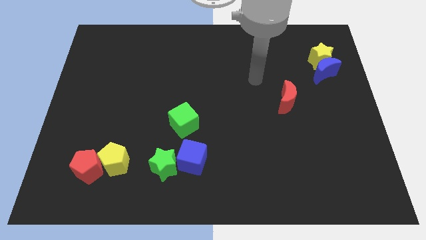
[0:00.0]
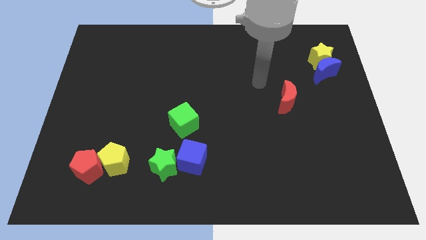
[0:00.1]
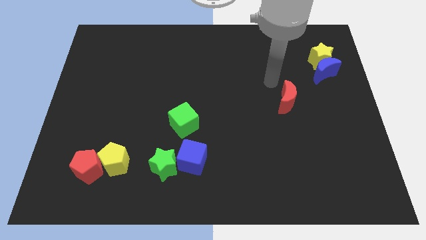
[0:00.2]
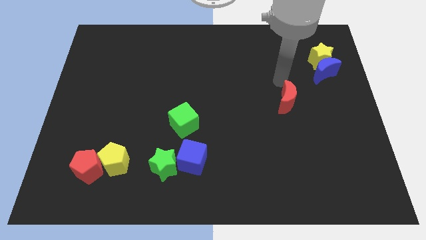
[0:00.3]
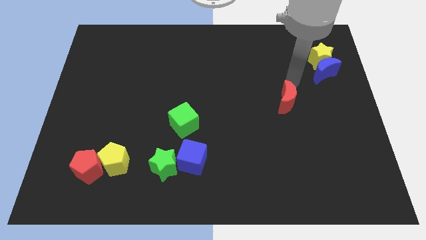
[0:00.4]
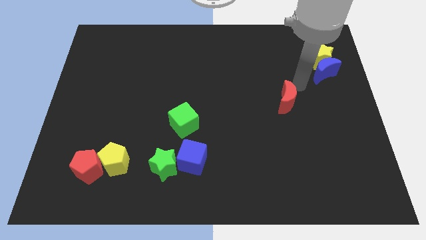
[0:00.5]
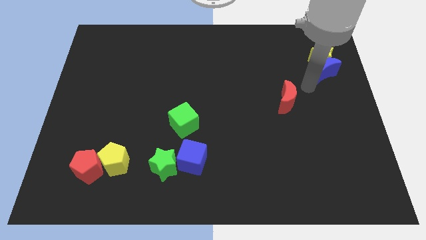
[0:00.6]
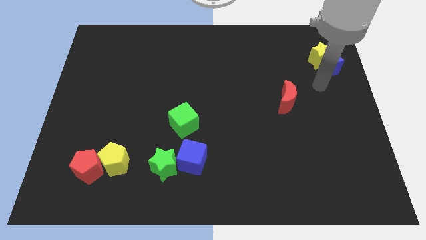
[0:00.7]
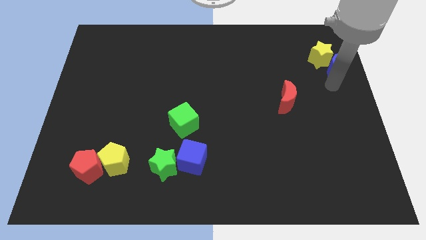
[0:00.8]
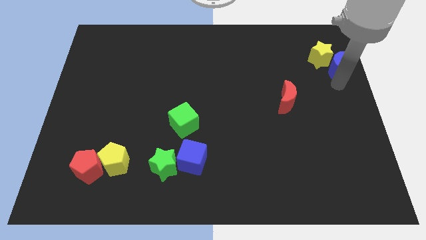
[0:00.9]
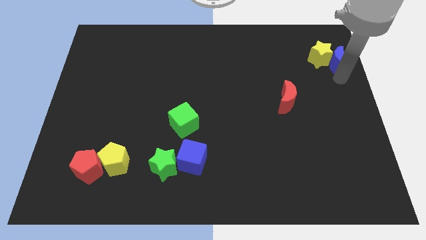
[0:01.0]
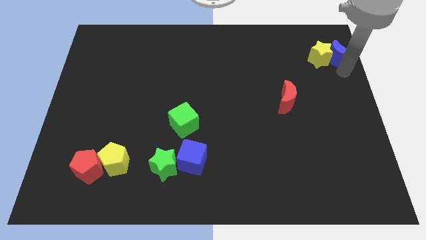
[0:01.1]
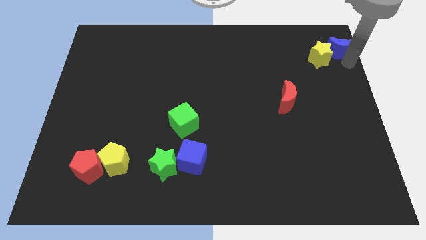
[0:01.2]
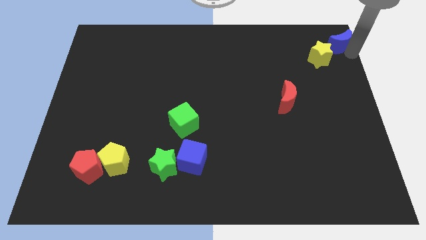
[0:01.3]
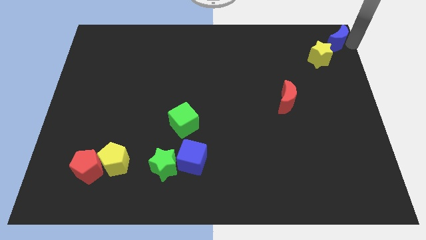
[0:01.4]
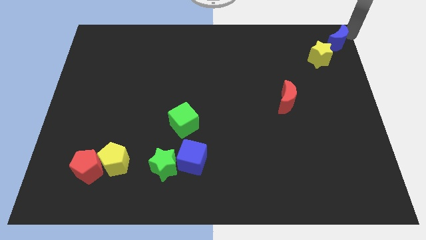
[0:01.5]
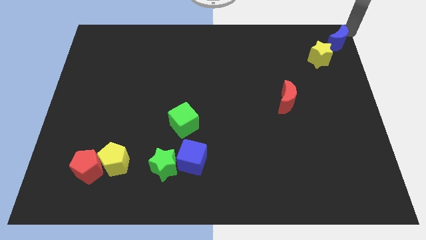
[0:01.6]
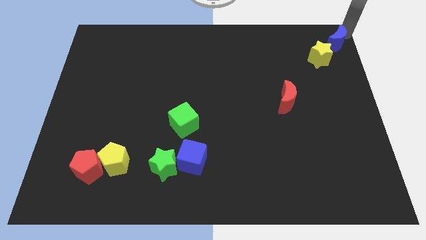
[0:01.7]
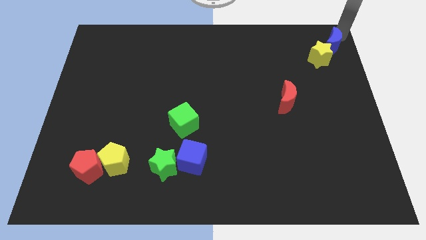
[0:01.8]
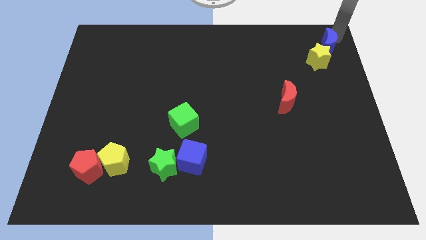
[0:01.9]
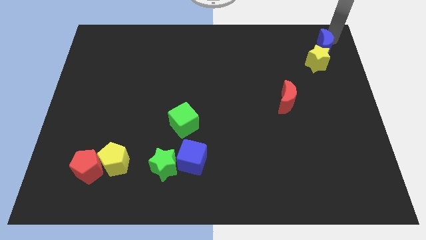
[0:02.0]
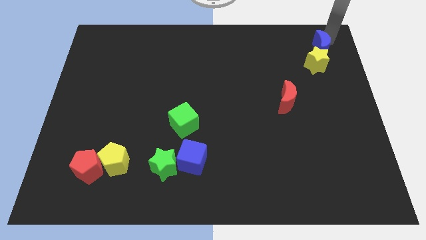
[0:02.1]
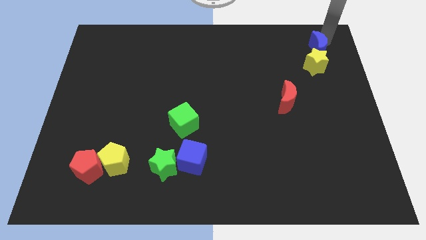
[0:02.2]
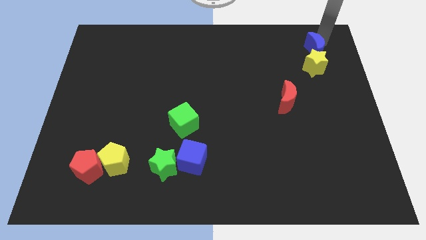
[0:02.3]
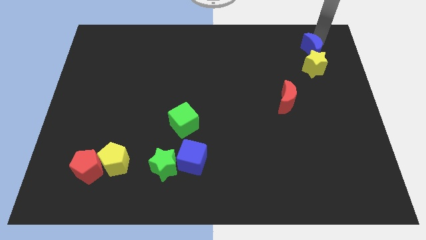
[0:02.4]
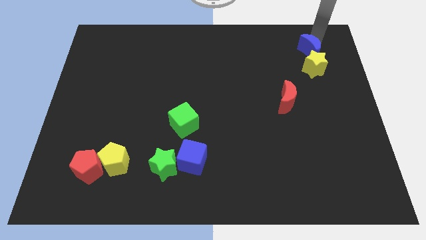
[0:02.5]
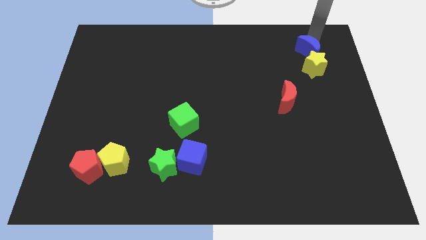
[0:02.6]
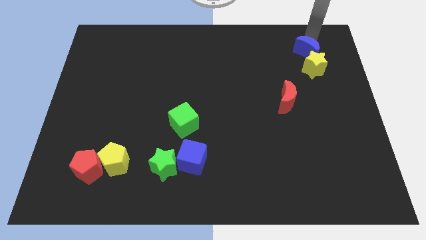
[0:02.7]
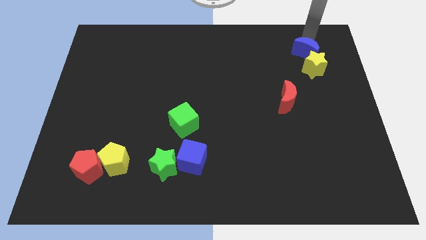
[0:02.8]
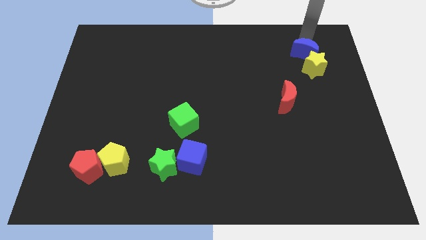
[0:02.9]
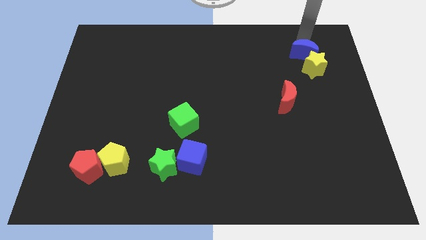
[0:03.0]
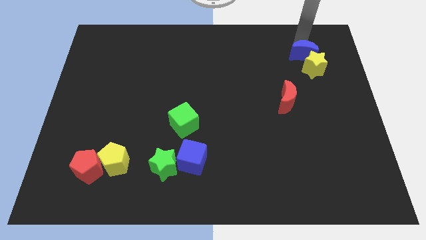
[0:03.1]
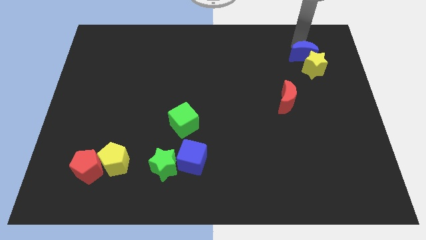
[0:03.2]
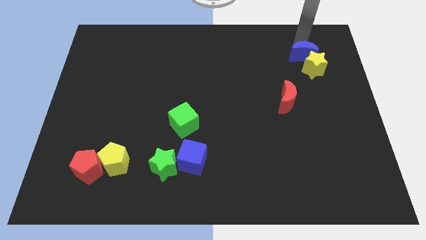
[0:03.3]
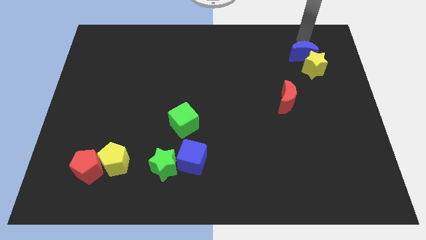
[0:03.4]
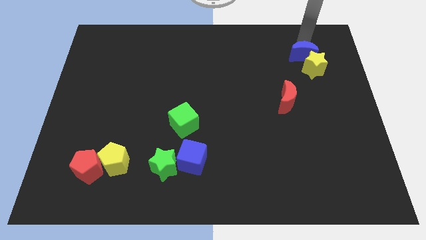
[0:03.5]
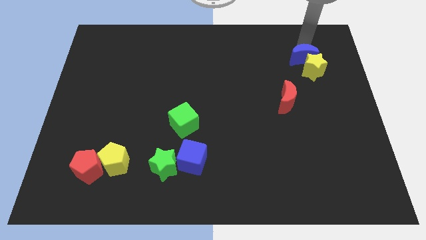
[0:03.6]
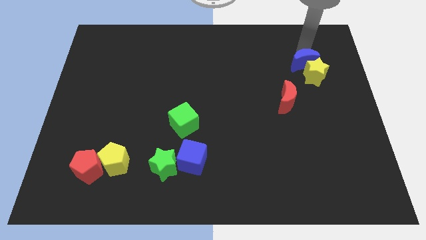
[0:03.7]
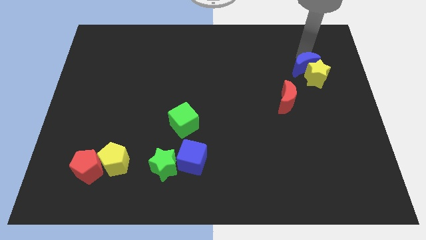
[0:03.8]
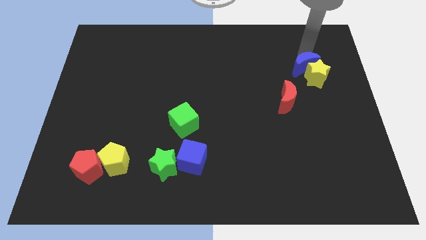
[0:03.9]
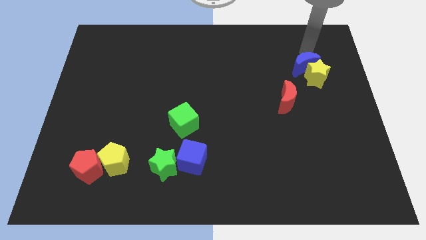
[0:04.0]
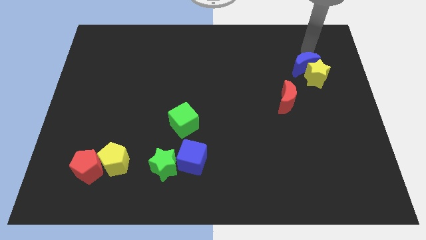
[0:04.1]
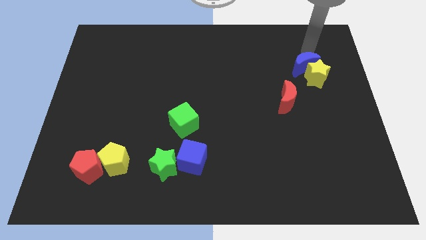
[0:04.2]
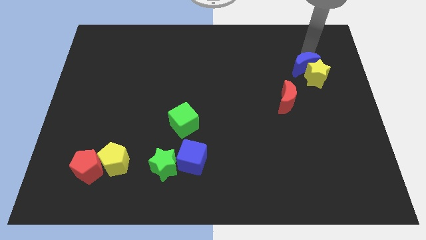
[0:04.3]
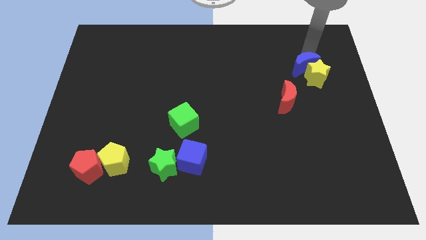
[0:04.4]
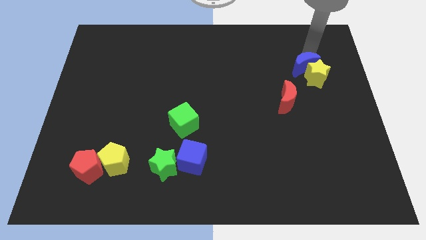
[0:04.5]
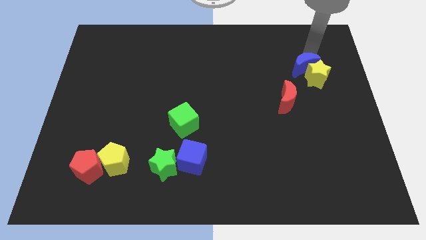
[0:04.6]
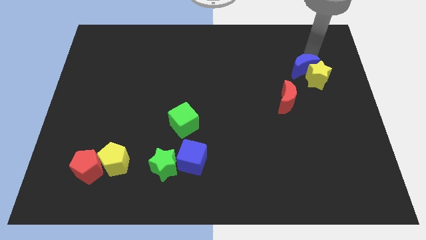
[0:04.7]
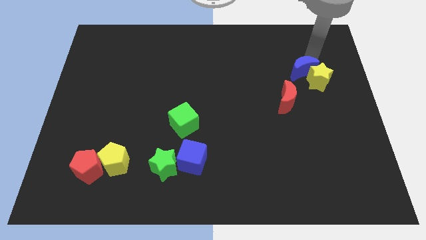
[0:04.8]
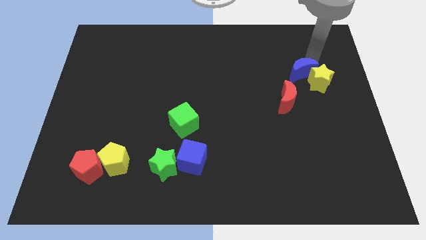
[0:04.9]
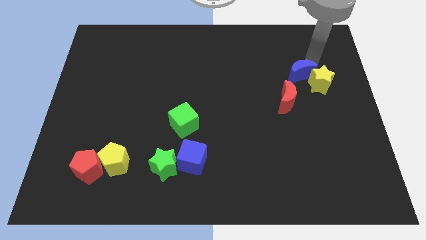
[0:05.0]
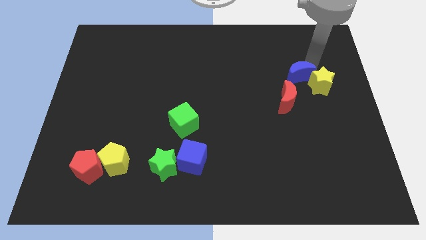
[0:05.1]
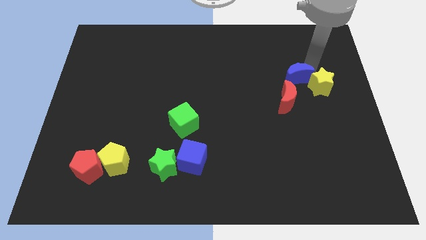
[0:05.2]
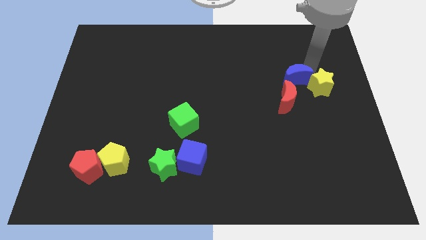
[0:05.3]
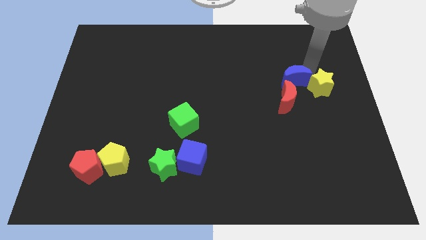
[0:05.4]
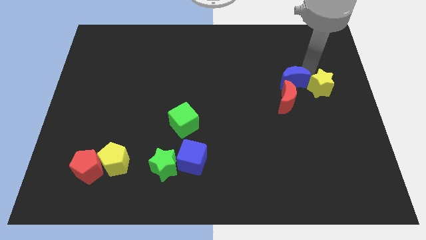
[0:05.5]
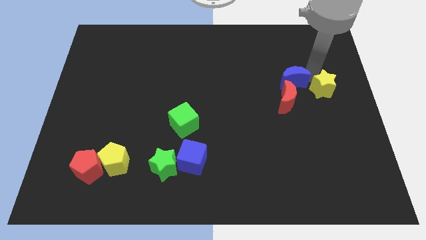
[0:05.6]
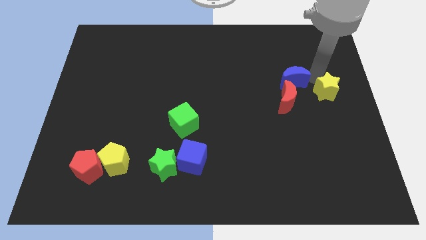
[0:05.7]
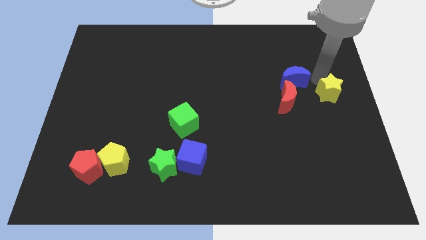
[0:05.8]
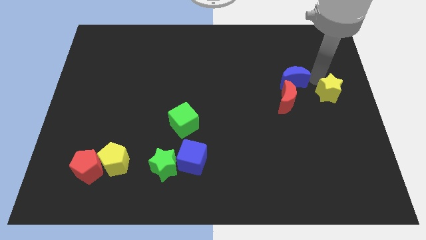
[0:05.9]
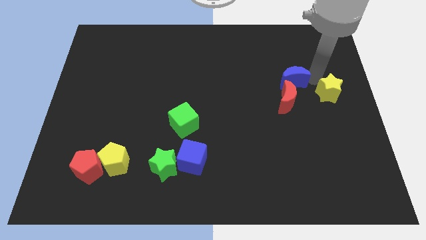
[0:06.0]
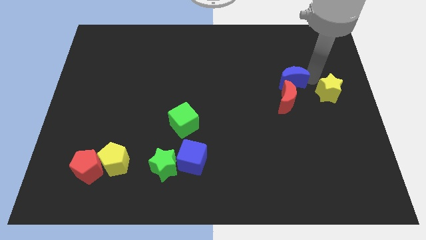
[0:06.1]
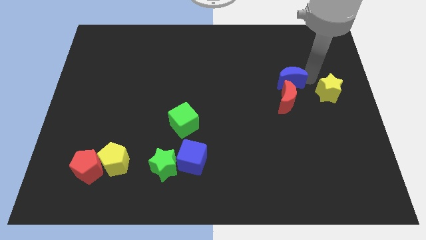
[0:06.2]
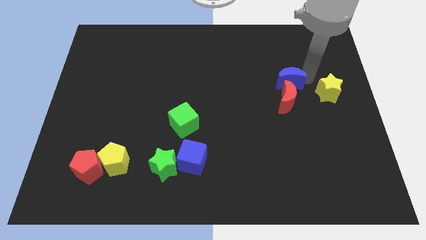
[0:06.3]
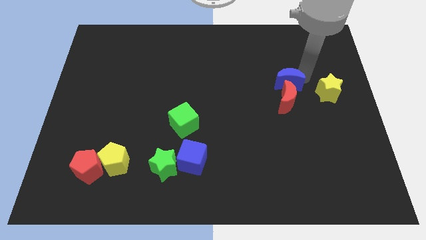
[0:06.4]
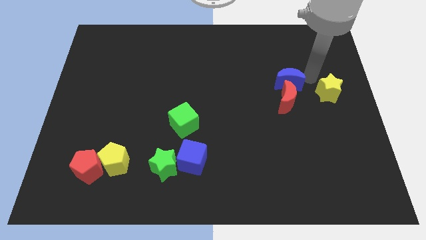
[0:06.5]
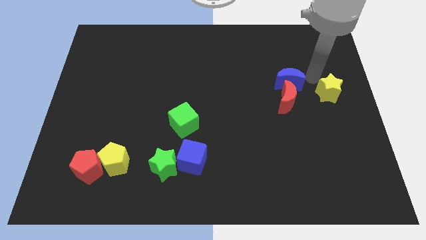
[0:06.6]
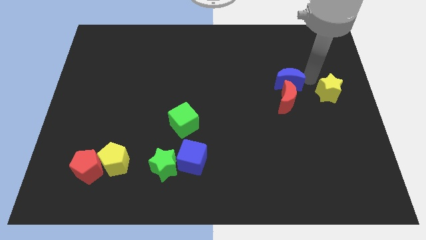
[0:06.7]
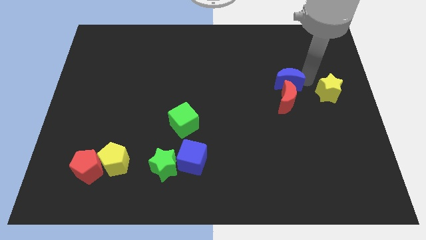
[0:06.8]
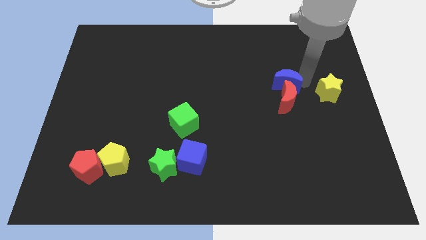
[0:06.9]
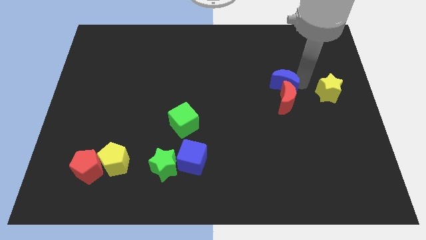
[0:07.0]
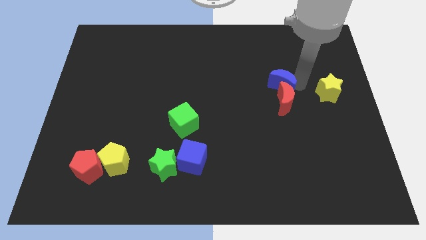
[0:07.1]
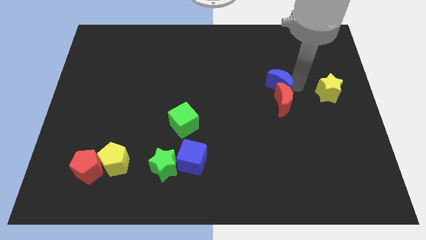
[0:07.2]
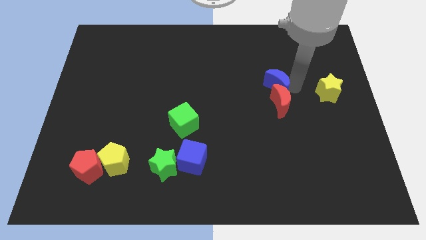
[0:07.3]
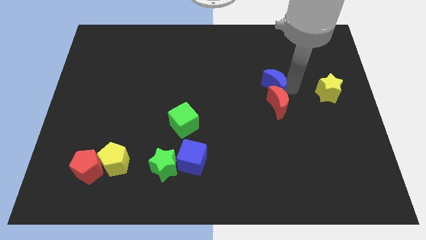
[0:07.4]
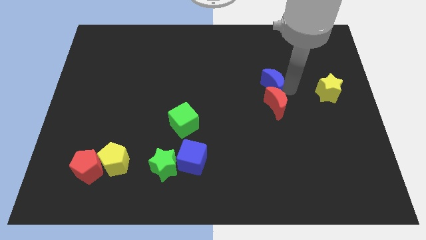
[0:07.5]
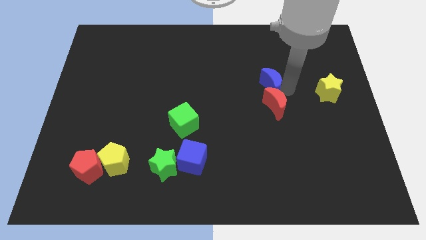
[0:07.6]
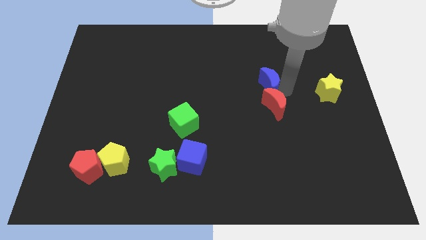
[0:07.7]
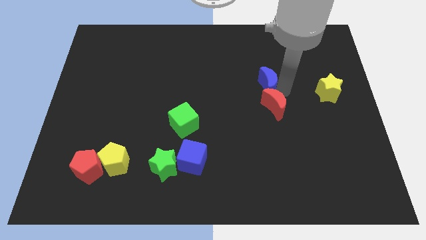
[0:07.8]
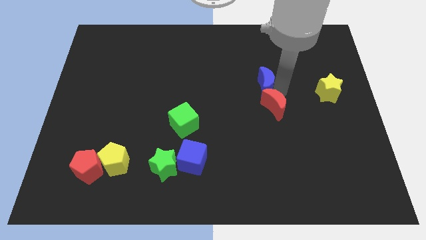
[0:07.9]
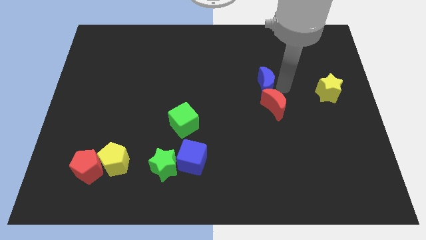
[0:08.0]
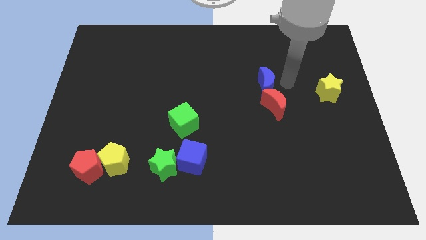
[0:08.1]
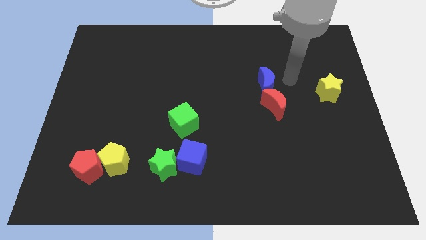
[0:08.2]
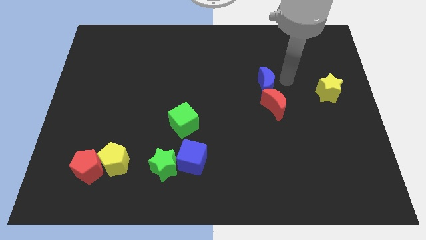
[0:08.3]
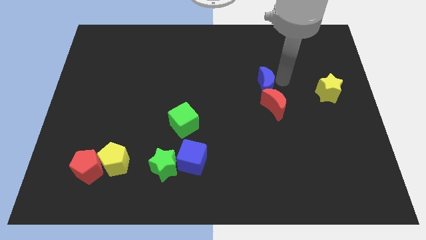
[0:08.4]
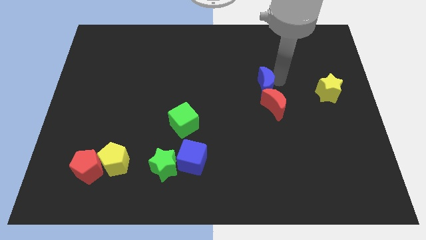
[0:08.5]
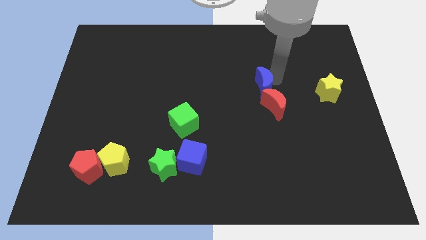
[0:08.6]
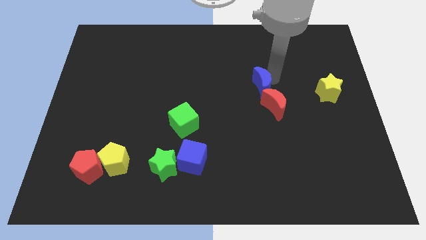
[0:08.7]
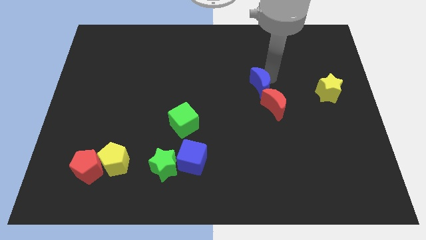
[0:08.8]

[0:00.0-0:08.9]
move the blue moon to the middle of the board
